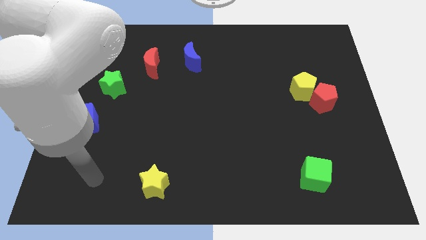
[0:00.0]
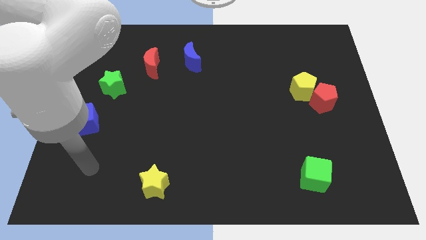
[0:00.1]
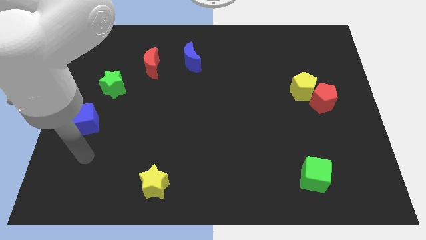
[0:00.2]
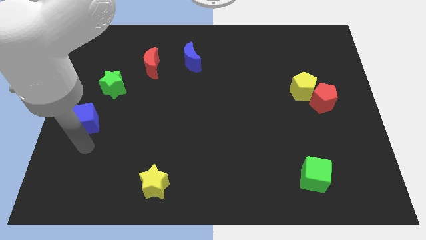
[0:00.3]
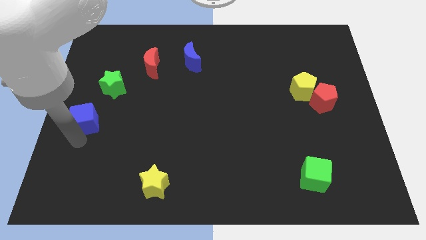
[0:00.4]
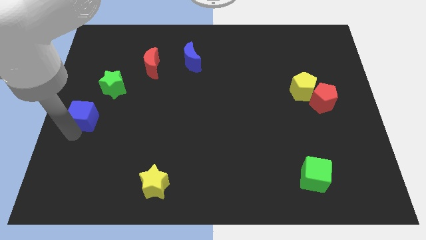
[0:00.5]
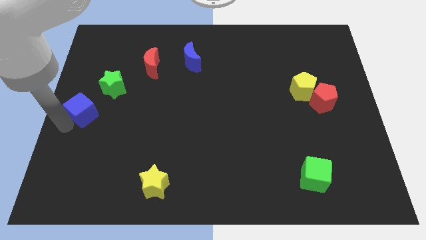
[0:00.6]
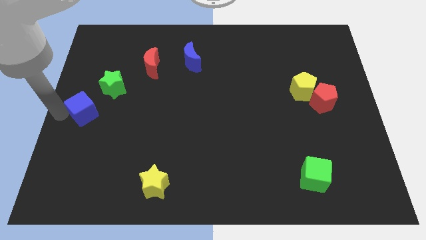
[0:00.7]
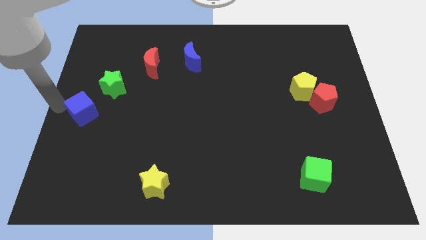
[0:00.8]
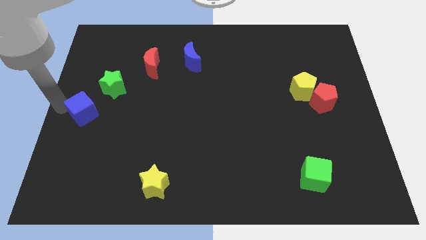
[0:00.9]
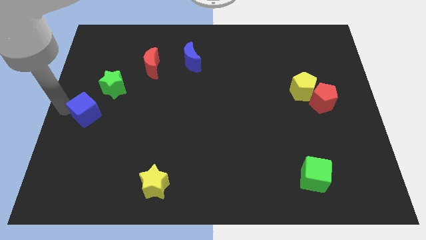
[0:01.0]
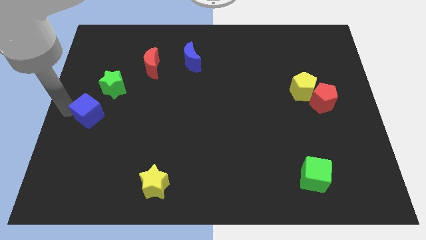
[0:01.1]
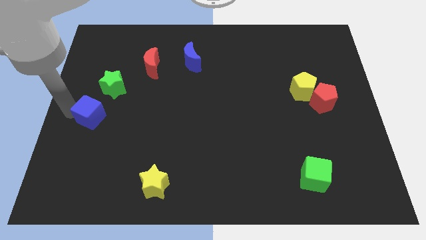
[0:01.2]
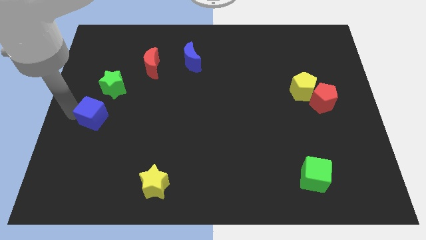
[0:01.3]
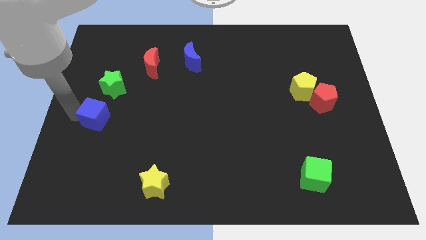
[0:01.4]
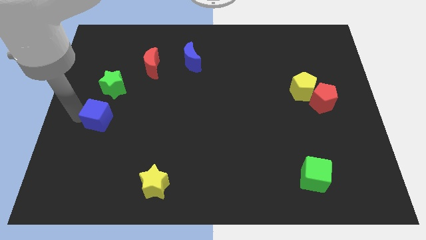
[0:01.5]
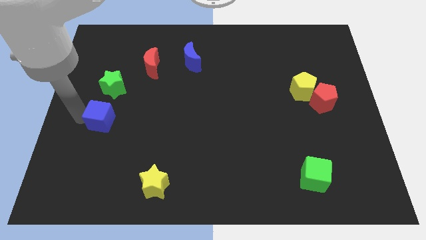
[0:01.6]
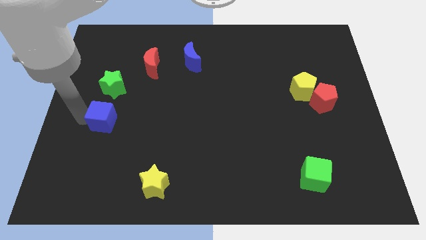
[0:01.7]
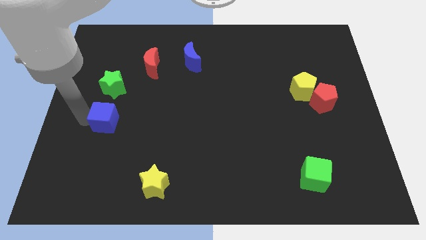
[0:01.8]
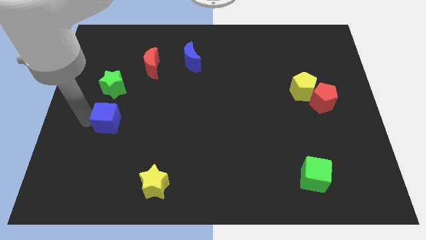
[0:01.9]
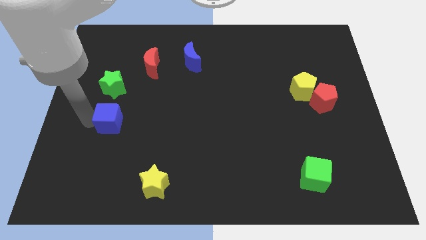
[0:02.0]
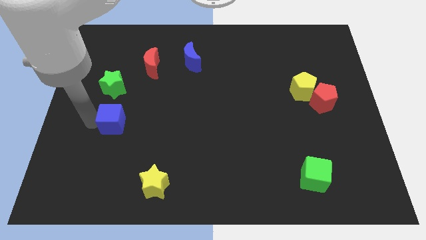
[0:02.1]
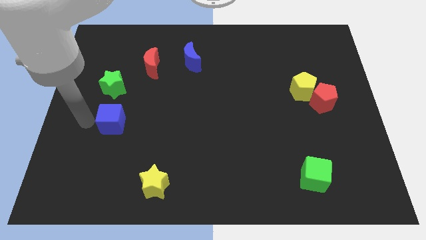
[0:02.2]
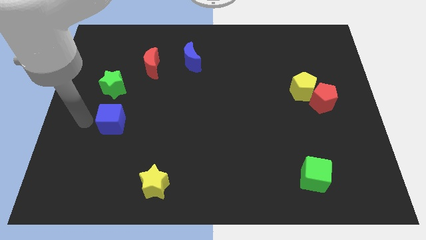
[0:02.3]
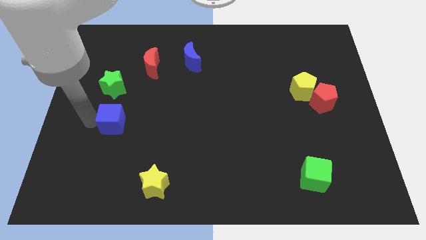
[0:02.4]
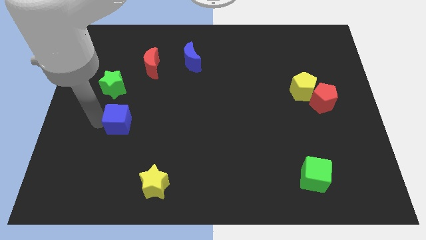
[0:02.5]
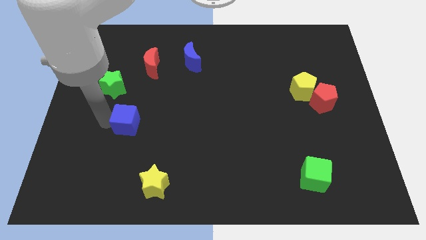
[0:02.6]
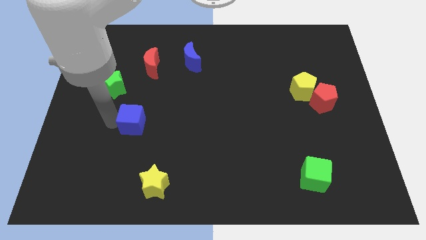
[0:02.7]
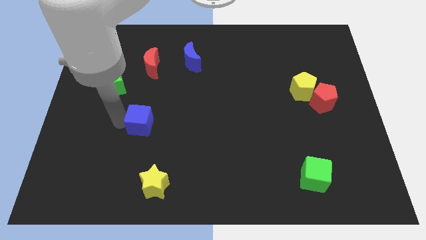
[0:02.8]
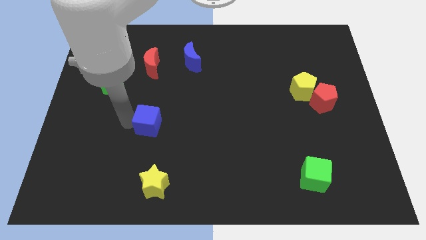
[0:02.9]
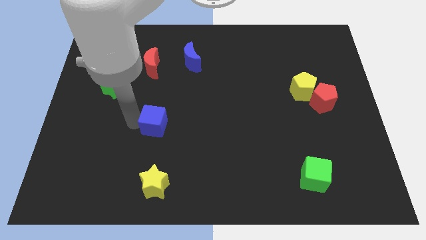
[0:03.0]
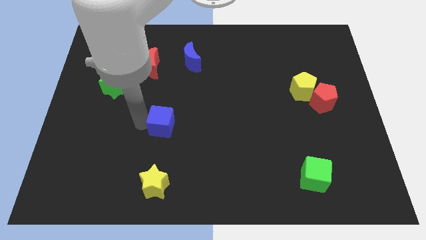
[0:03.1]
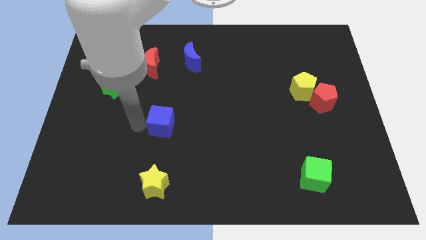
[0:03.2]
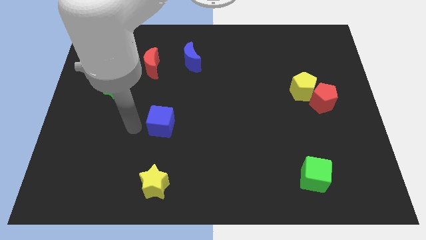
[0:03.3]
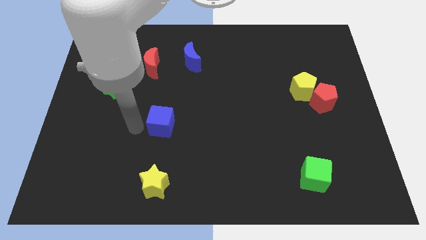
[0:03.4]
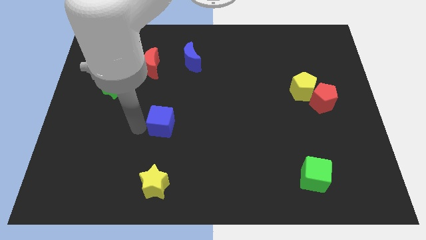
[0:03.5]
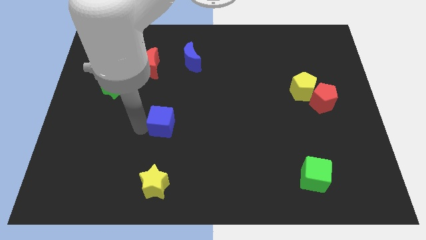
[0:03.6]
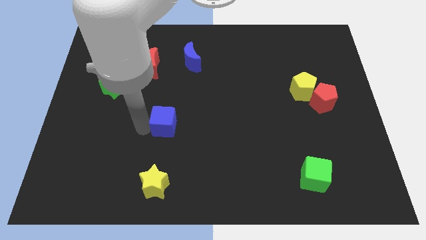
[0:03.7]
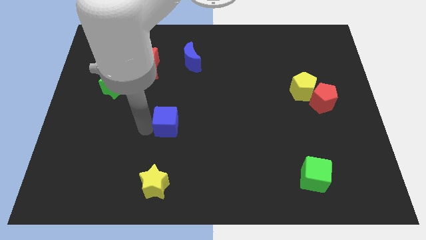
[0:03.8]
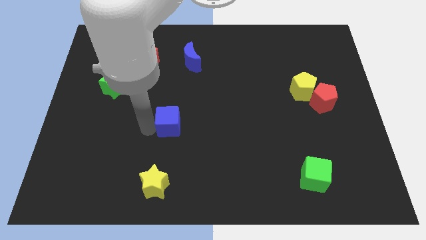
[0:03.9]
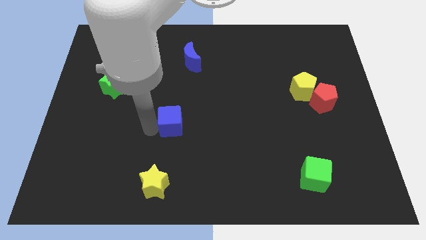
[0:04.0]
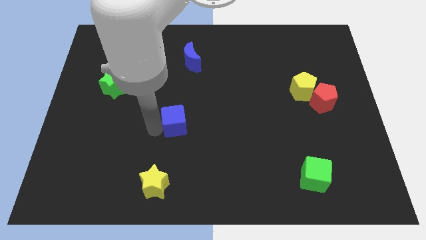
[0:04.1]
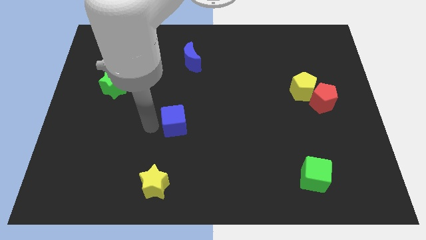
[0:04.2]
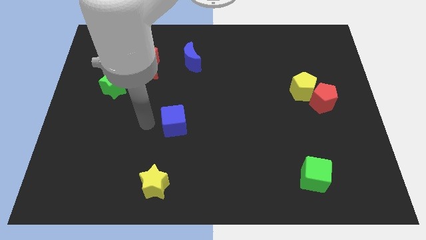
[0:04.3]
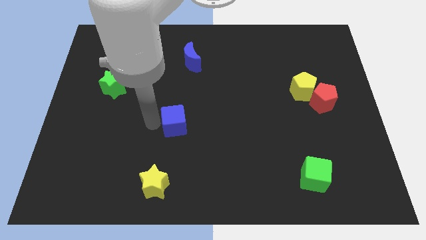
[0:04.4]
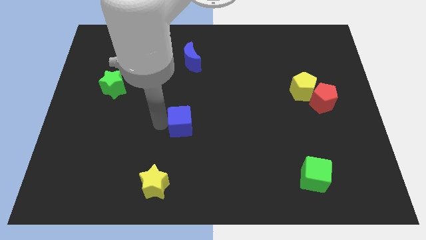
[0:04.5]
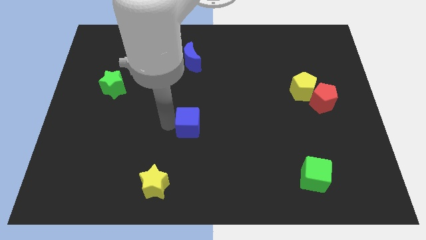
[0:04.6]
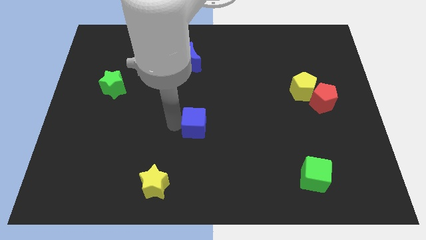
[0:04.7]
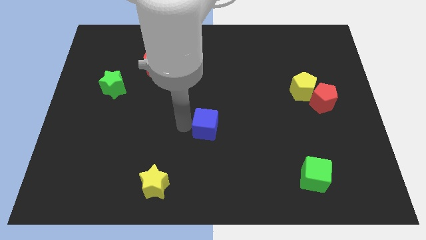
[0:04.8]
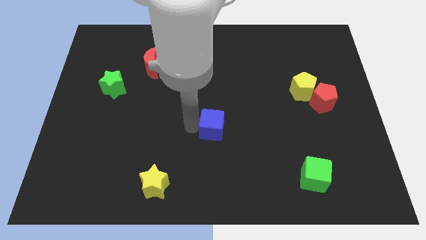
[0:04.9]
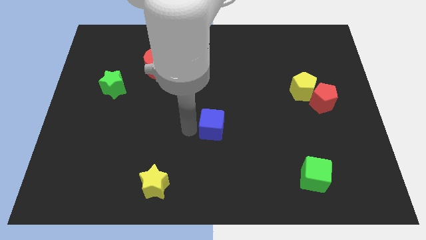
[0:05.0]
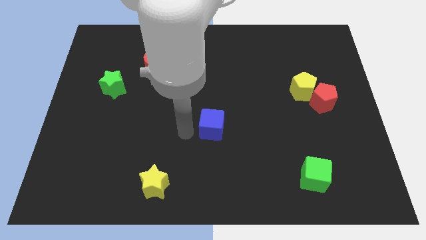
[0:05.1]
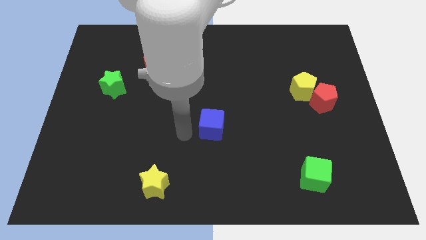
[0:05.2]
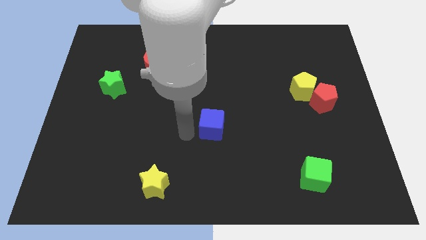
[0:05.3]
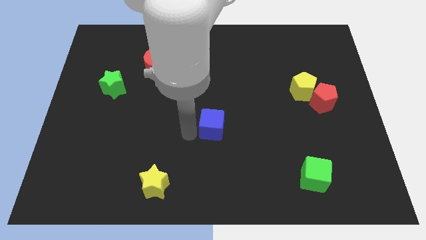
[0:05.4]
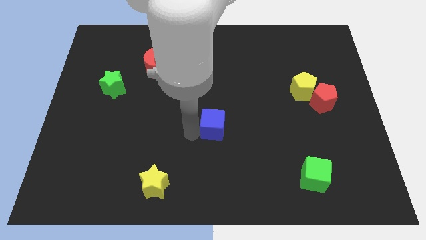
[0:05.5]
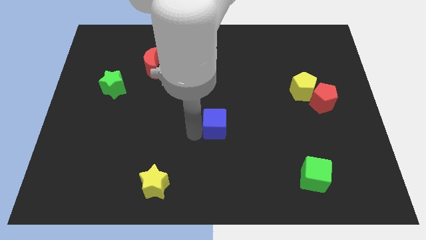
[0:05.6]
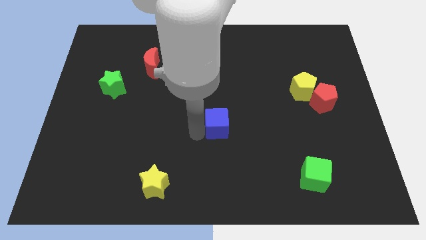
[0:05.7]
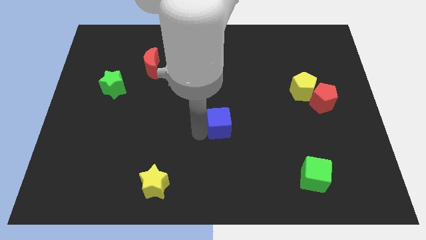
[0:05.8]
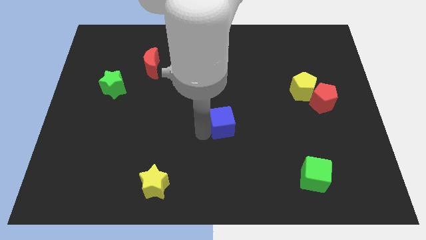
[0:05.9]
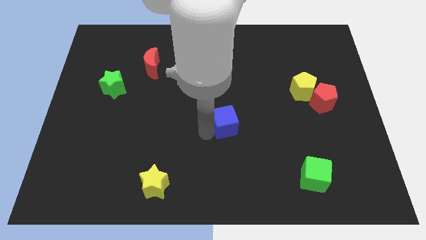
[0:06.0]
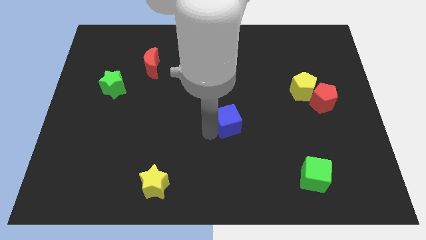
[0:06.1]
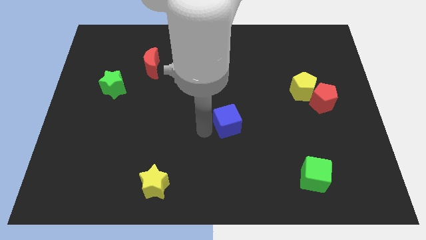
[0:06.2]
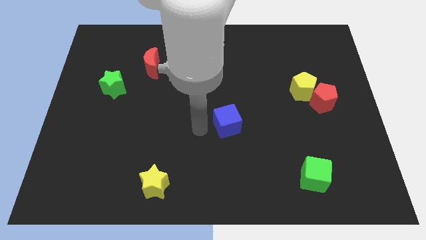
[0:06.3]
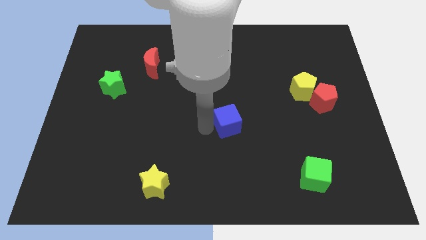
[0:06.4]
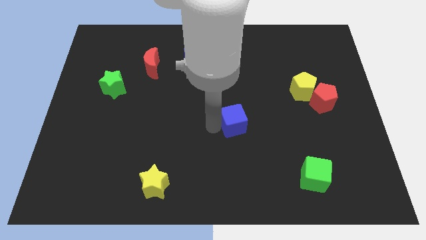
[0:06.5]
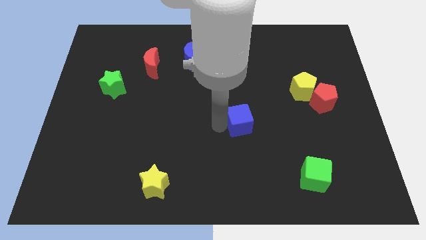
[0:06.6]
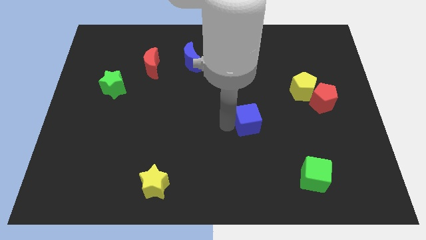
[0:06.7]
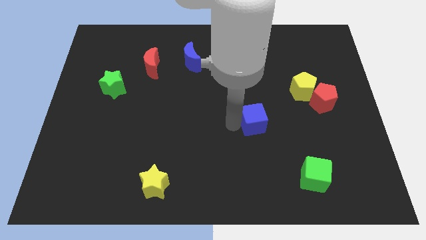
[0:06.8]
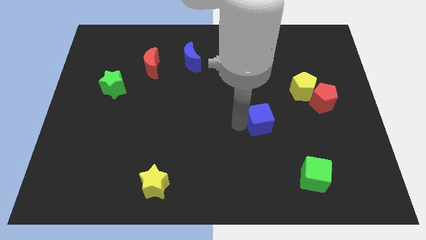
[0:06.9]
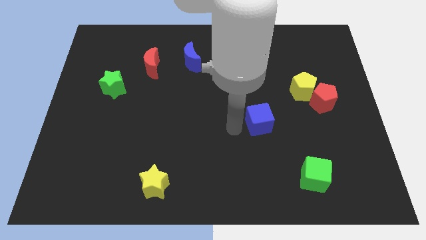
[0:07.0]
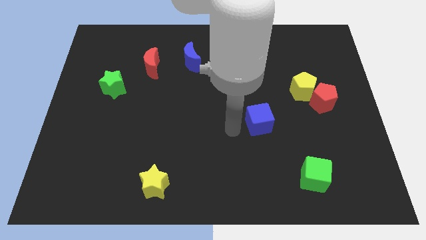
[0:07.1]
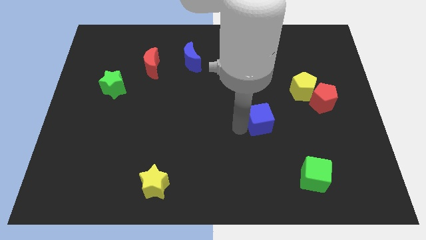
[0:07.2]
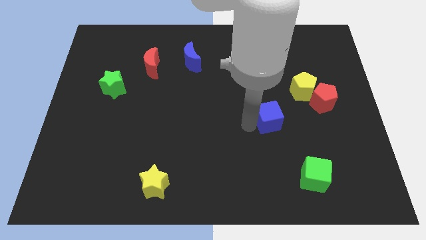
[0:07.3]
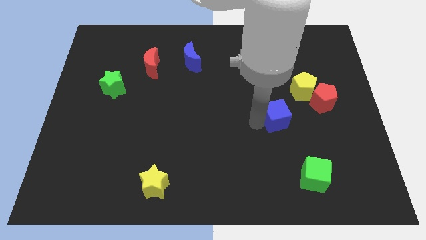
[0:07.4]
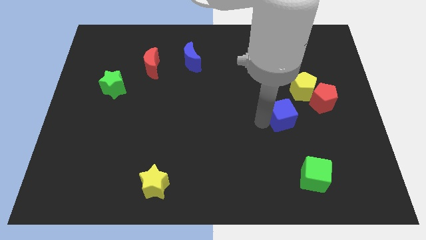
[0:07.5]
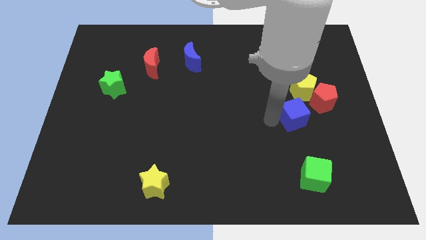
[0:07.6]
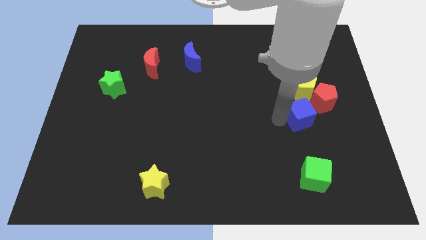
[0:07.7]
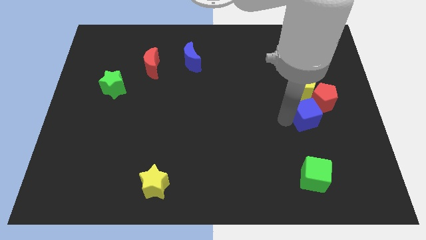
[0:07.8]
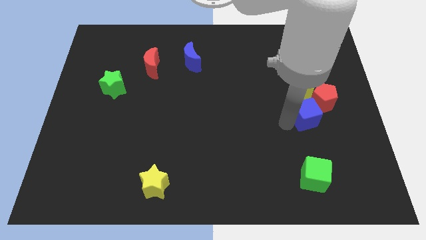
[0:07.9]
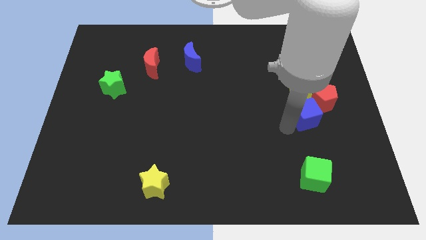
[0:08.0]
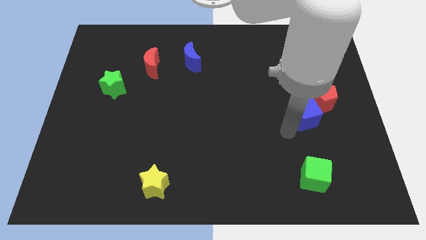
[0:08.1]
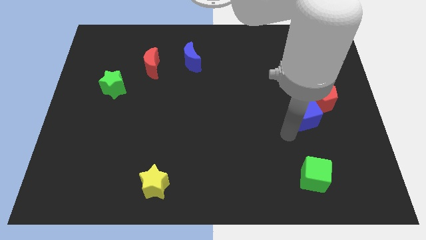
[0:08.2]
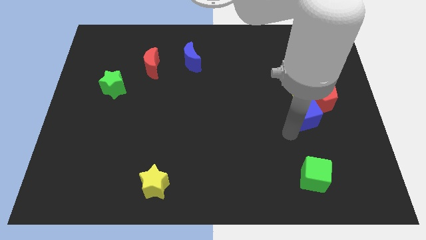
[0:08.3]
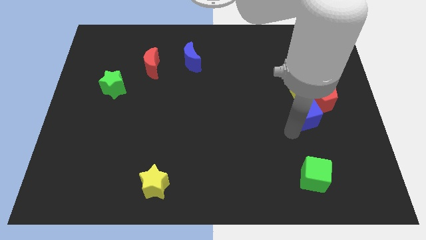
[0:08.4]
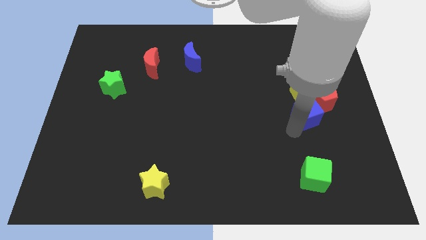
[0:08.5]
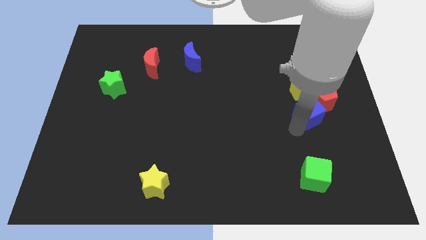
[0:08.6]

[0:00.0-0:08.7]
slide the blue cube towards the red pentagon
